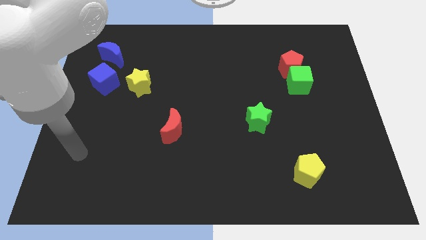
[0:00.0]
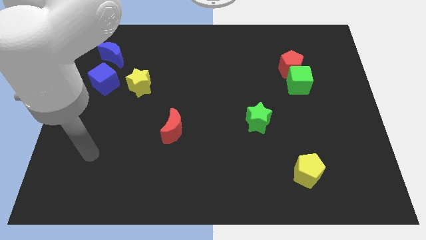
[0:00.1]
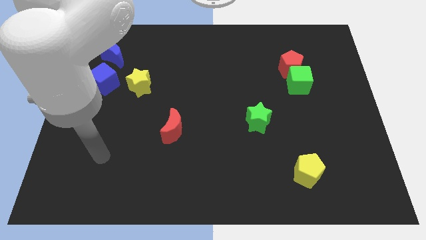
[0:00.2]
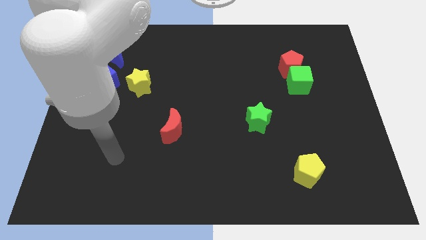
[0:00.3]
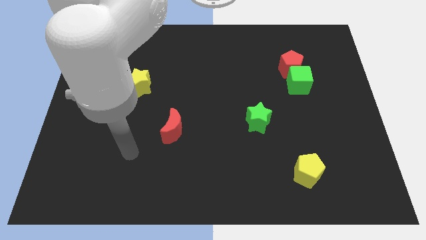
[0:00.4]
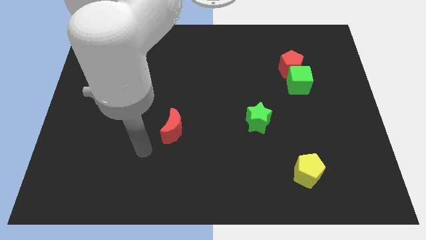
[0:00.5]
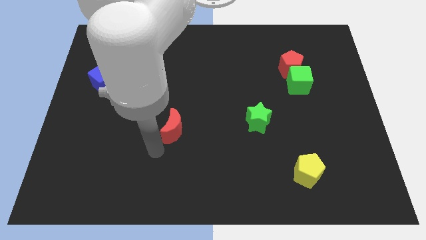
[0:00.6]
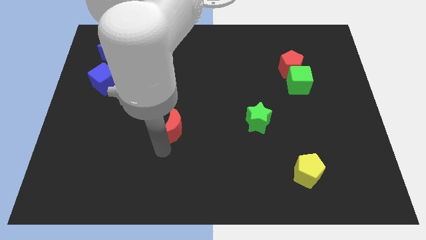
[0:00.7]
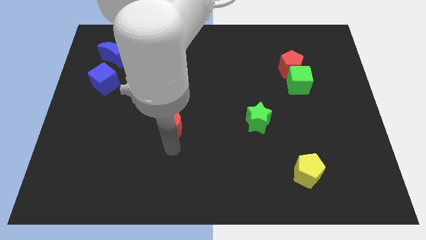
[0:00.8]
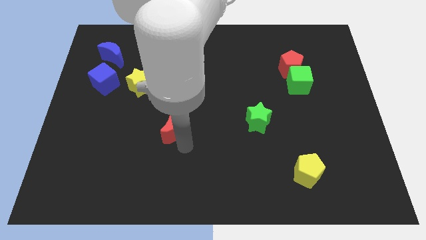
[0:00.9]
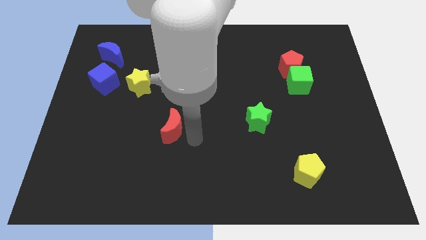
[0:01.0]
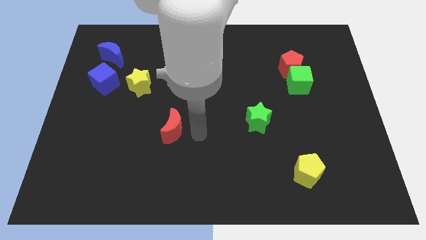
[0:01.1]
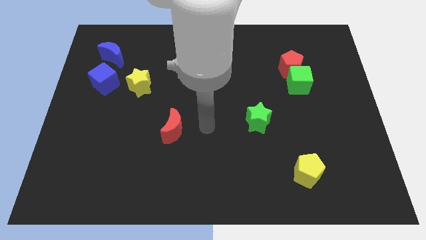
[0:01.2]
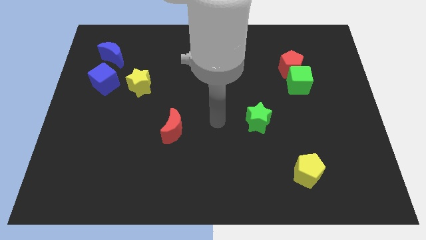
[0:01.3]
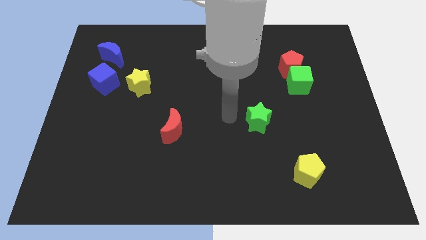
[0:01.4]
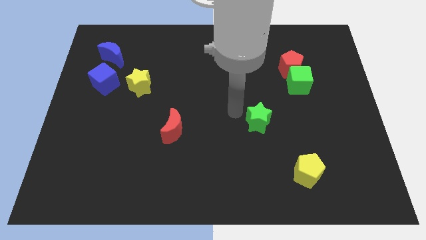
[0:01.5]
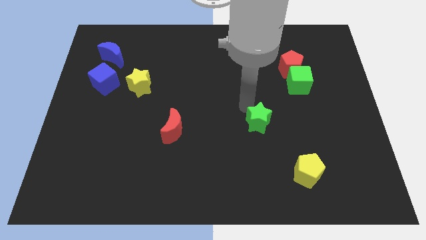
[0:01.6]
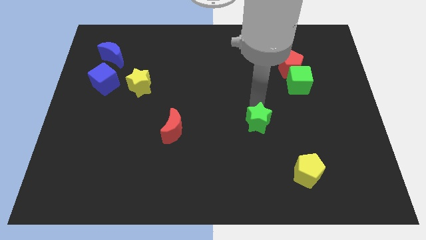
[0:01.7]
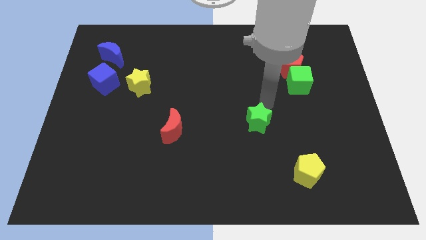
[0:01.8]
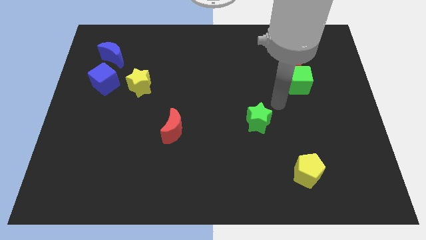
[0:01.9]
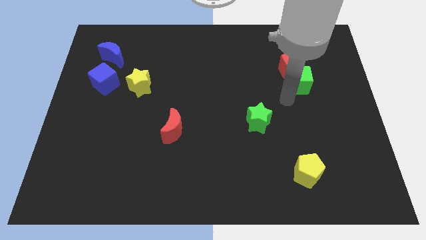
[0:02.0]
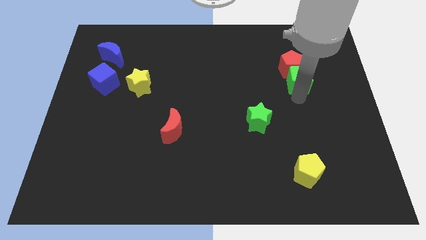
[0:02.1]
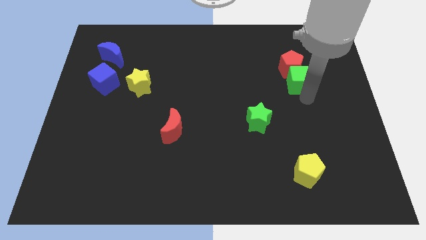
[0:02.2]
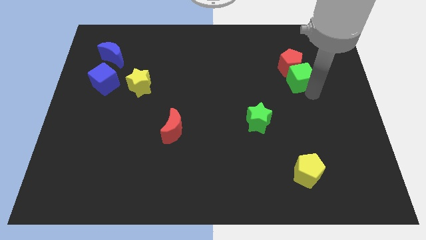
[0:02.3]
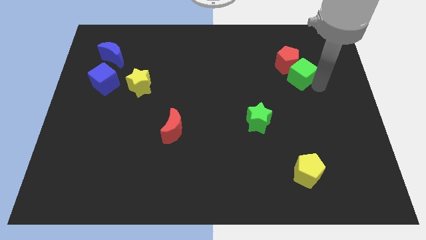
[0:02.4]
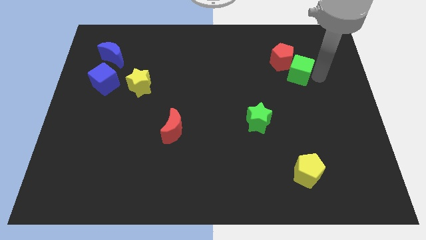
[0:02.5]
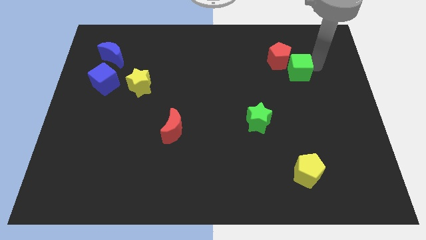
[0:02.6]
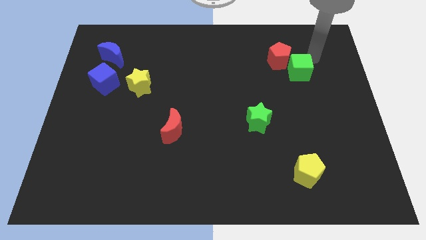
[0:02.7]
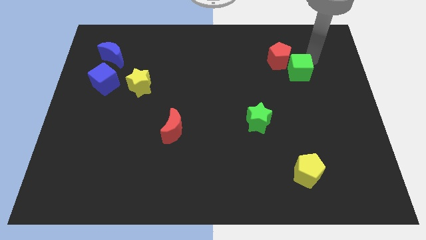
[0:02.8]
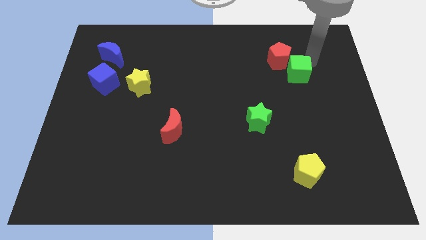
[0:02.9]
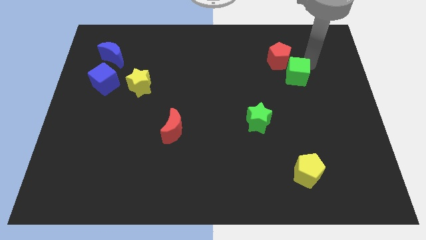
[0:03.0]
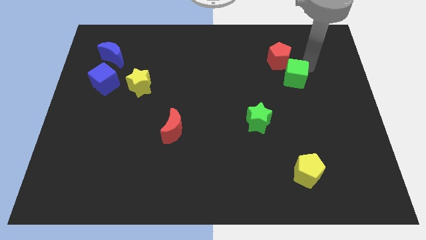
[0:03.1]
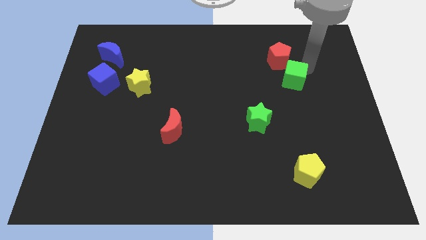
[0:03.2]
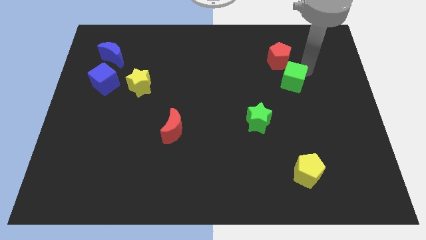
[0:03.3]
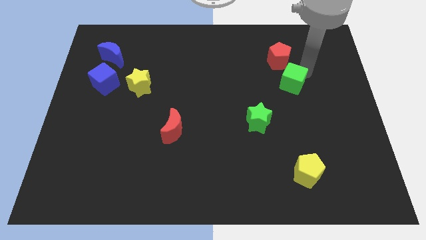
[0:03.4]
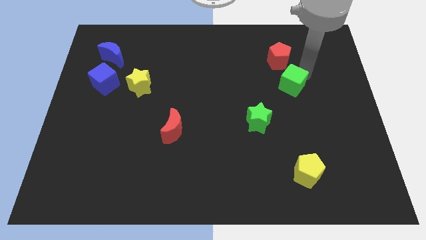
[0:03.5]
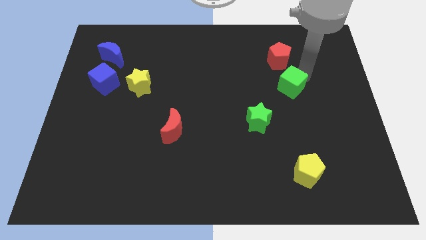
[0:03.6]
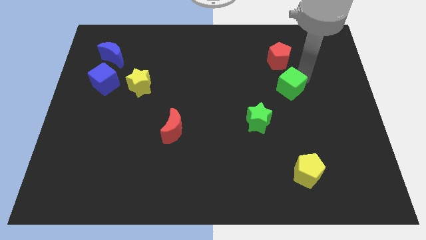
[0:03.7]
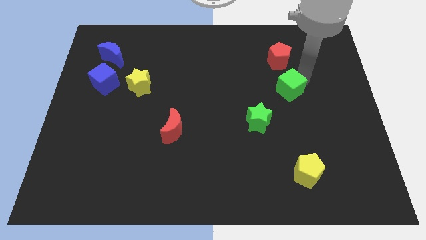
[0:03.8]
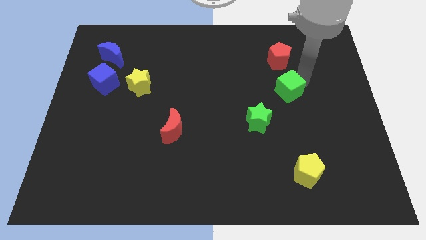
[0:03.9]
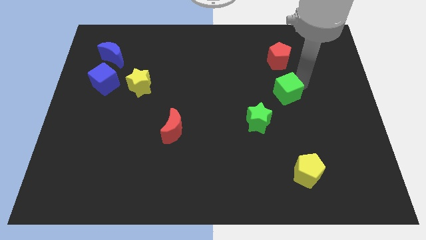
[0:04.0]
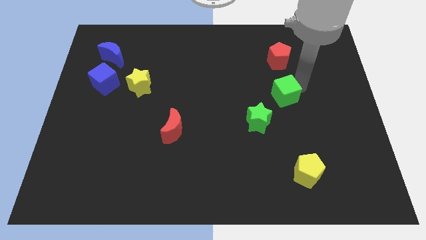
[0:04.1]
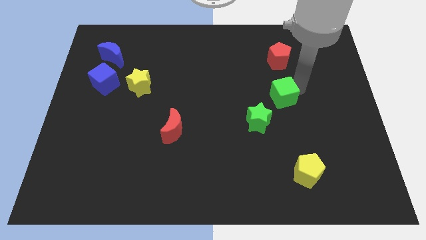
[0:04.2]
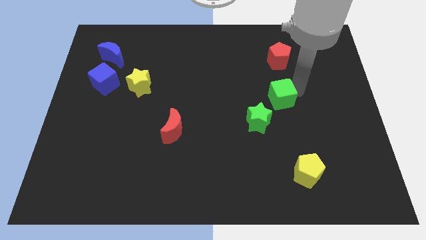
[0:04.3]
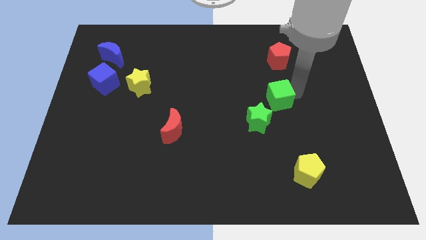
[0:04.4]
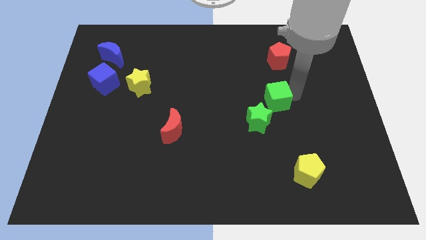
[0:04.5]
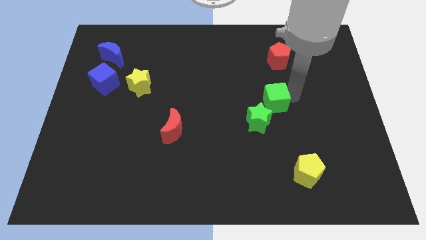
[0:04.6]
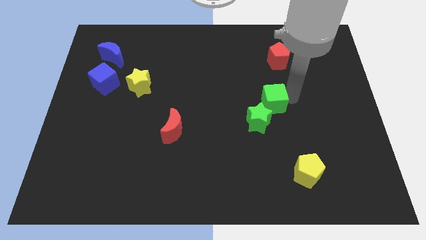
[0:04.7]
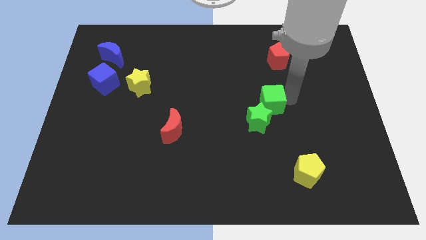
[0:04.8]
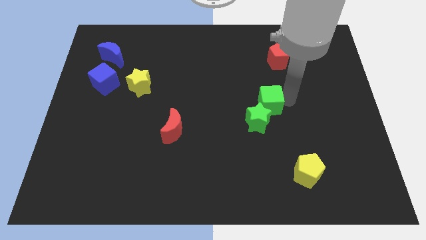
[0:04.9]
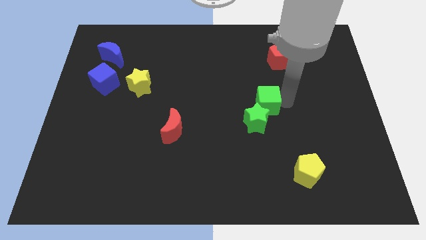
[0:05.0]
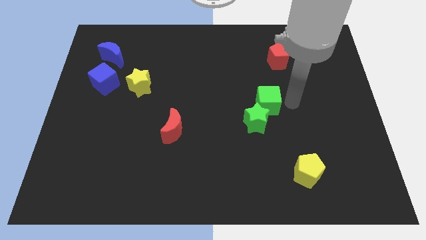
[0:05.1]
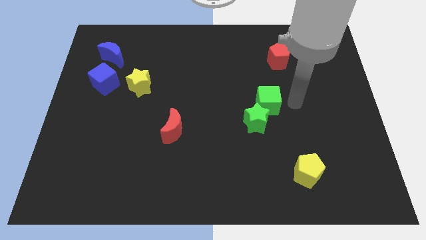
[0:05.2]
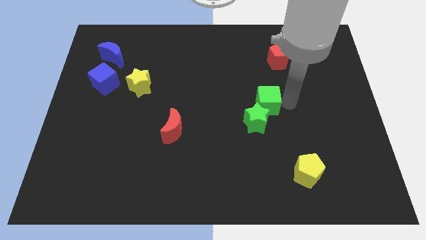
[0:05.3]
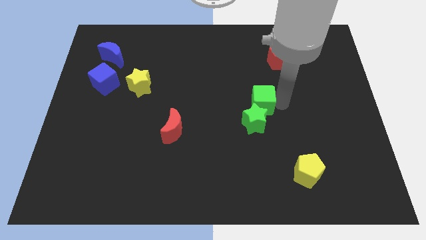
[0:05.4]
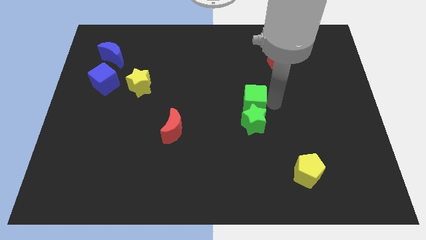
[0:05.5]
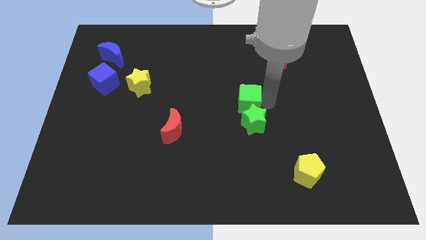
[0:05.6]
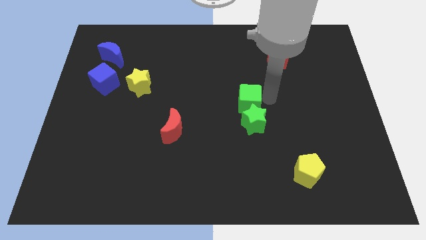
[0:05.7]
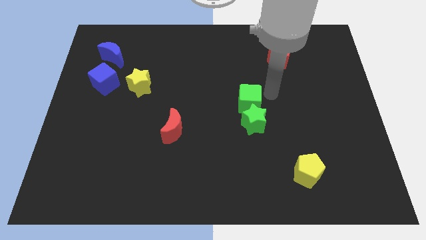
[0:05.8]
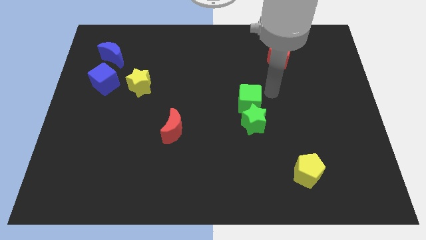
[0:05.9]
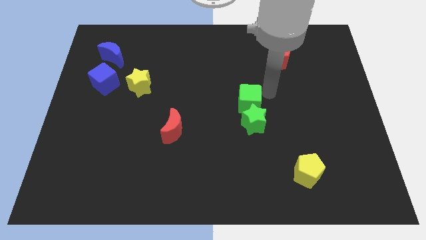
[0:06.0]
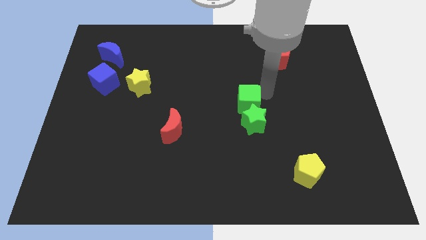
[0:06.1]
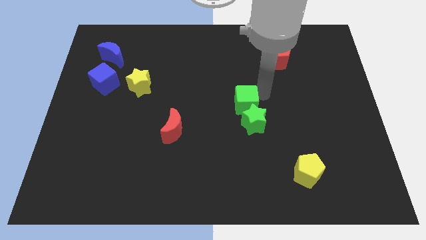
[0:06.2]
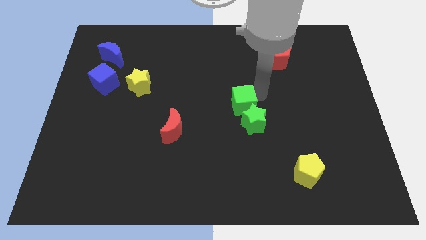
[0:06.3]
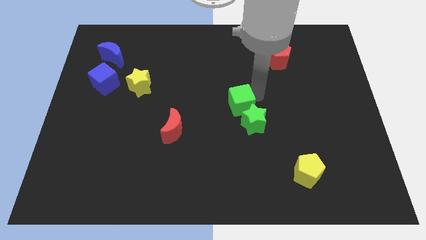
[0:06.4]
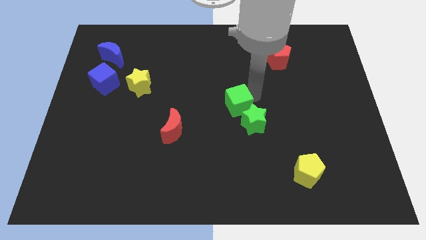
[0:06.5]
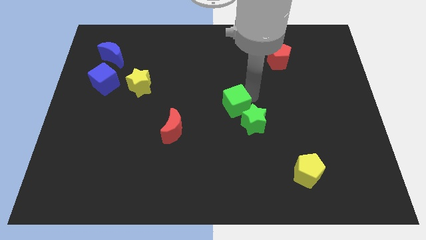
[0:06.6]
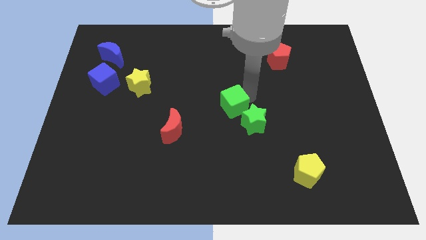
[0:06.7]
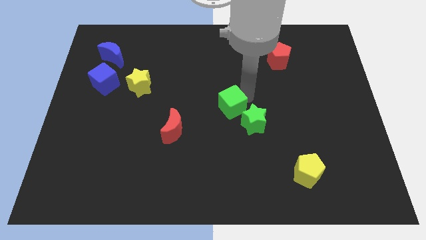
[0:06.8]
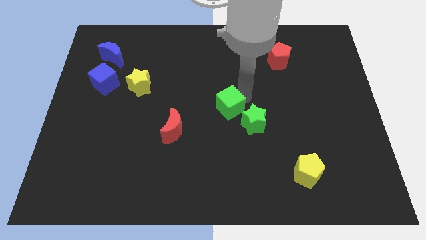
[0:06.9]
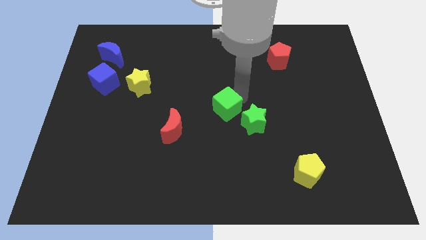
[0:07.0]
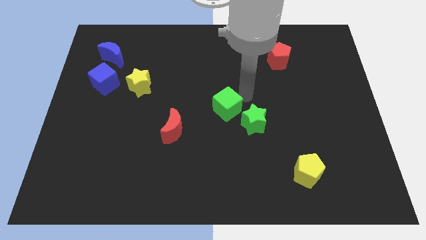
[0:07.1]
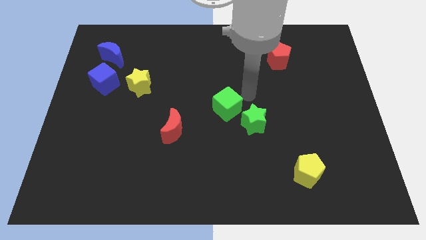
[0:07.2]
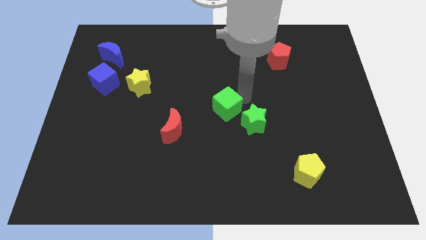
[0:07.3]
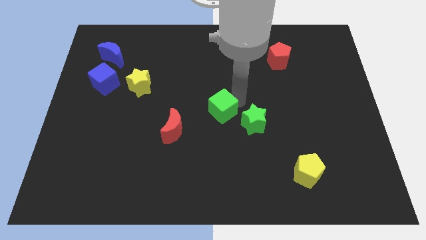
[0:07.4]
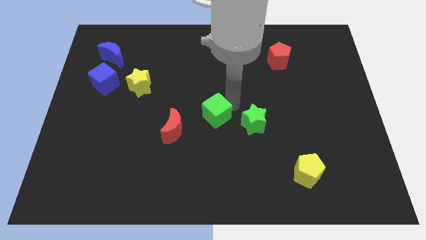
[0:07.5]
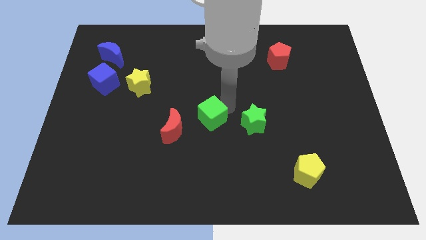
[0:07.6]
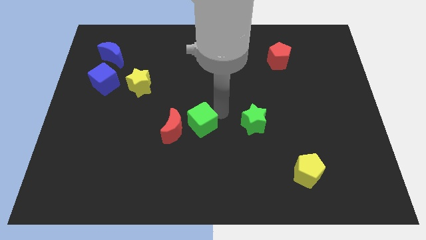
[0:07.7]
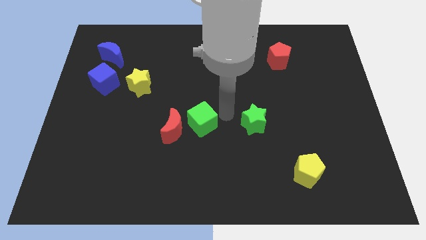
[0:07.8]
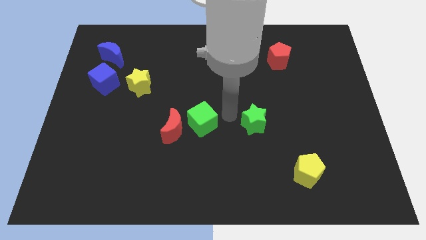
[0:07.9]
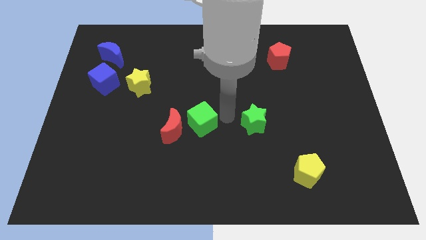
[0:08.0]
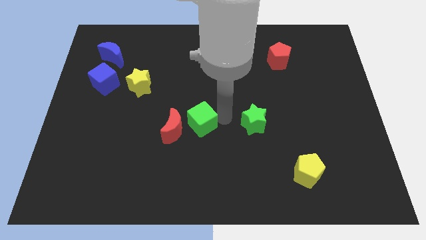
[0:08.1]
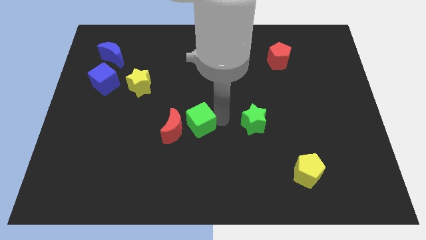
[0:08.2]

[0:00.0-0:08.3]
put the green cube close to the red moon
